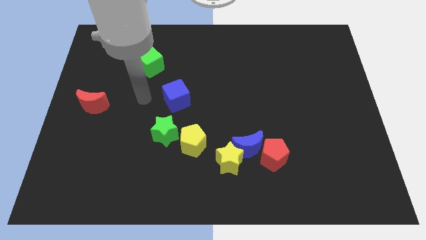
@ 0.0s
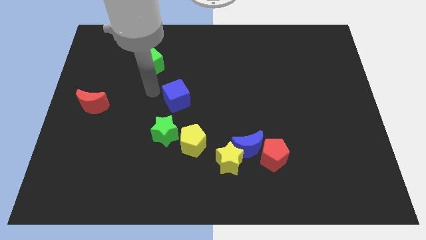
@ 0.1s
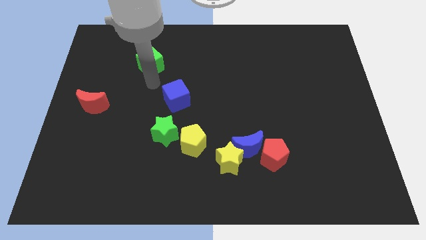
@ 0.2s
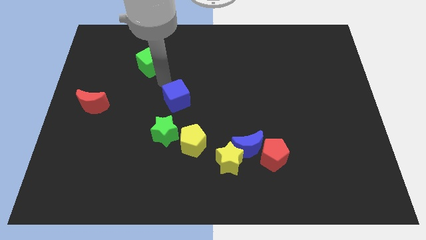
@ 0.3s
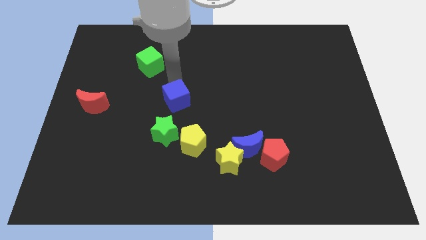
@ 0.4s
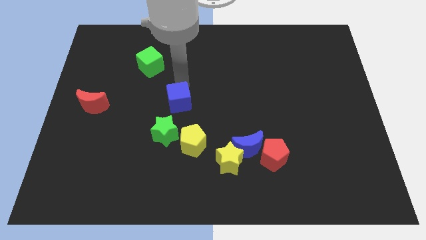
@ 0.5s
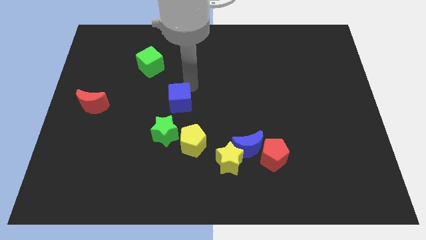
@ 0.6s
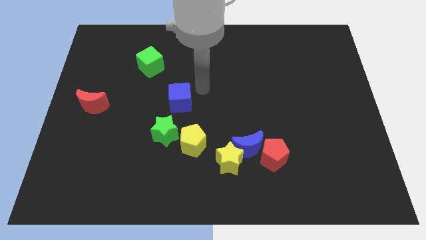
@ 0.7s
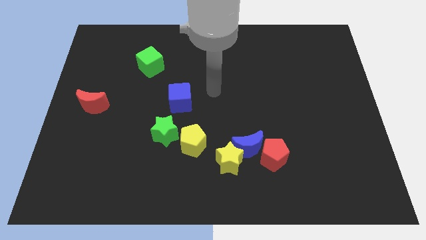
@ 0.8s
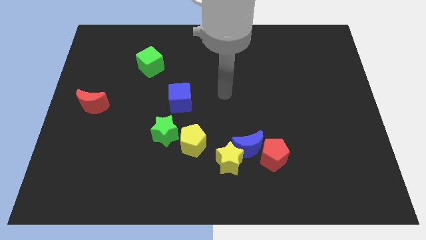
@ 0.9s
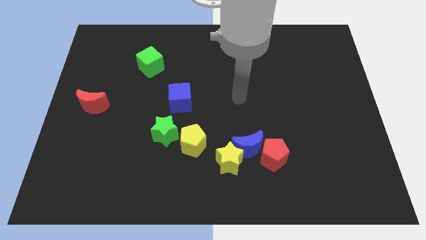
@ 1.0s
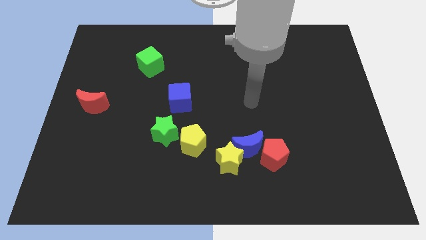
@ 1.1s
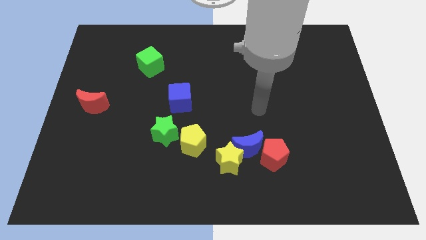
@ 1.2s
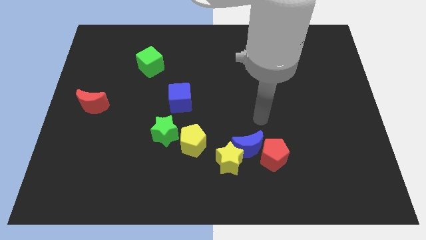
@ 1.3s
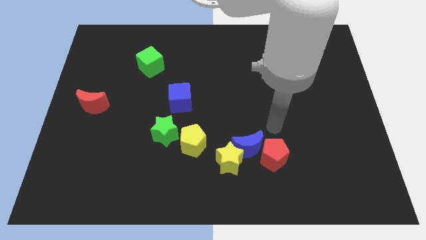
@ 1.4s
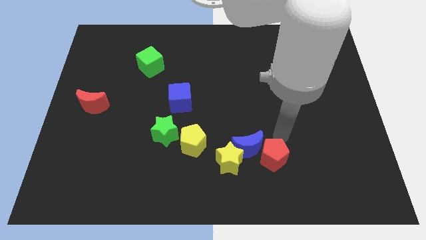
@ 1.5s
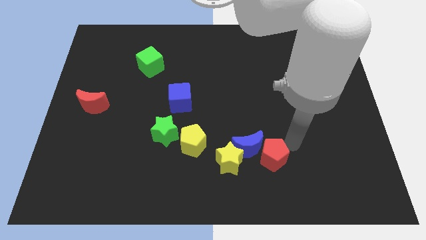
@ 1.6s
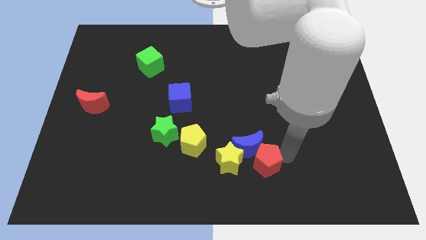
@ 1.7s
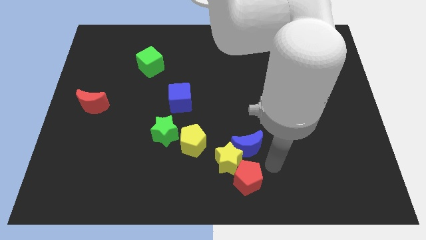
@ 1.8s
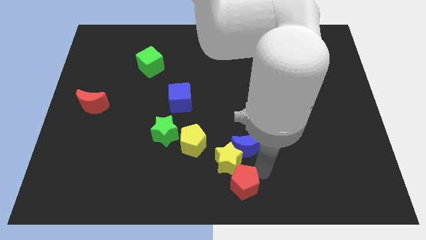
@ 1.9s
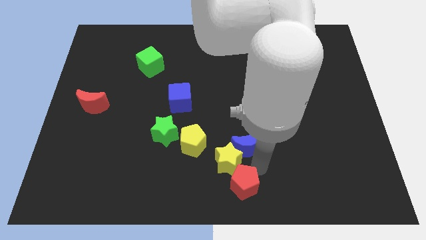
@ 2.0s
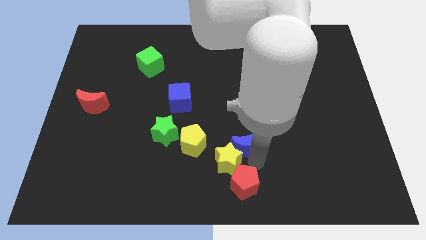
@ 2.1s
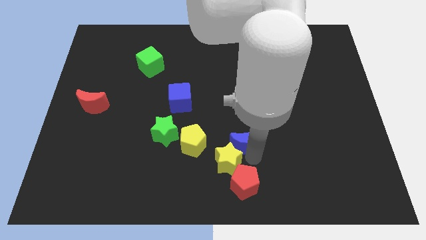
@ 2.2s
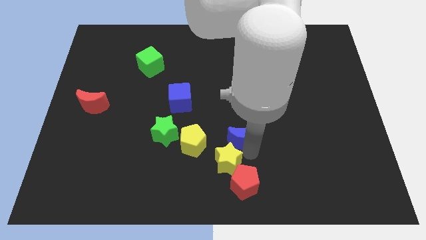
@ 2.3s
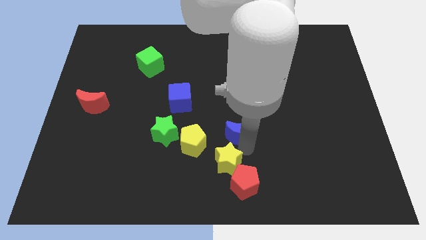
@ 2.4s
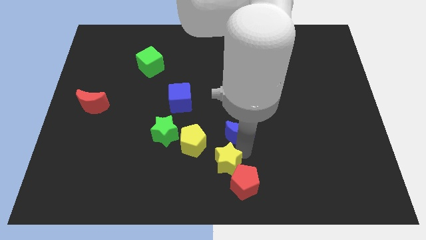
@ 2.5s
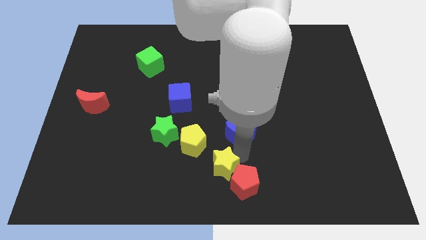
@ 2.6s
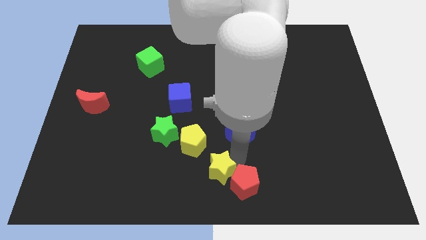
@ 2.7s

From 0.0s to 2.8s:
pull the blue moon apart from the yellow star and red pentagon

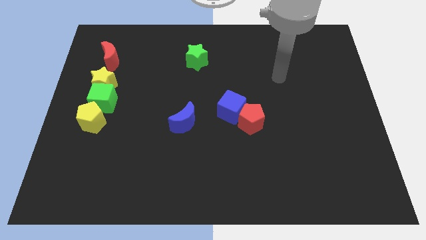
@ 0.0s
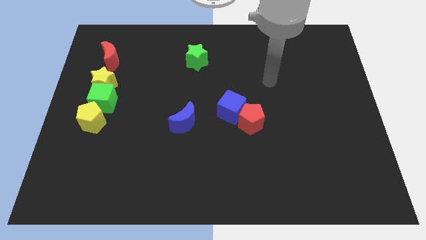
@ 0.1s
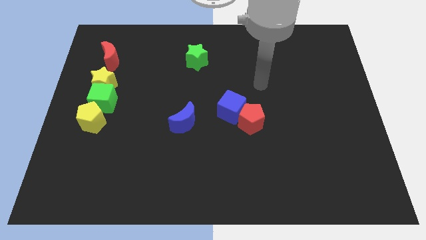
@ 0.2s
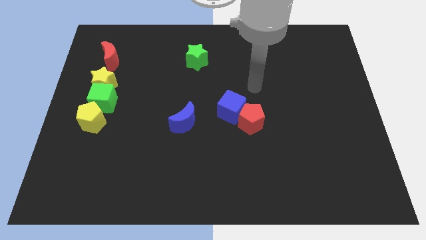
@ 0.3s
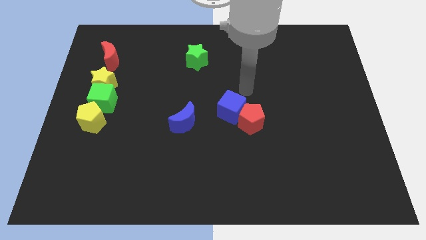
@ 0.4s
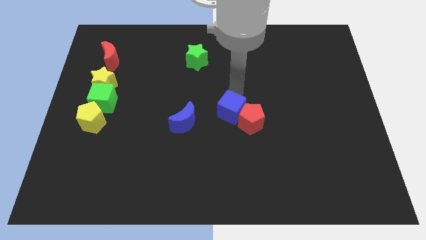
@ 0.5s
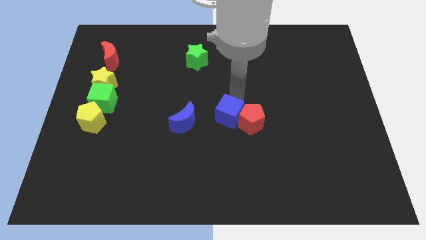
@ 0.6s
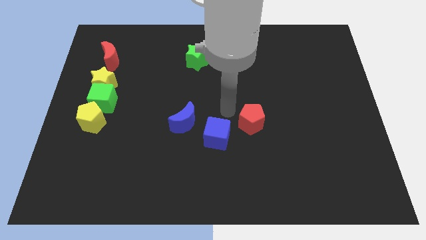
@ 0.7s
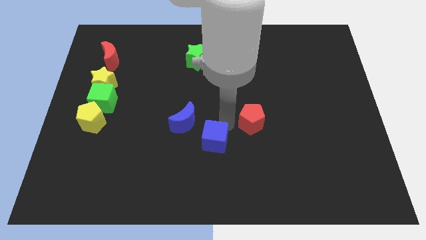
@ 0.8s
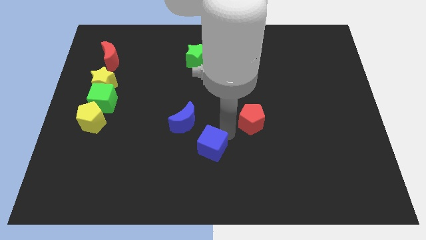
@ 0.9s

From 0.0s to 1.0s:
move the red pentagon away from the blue cube

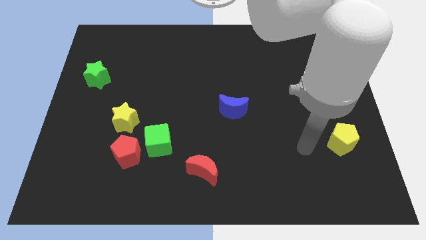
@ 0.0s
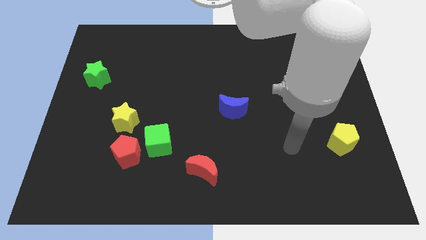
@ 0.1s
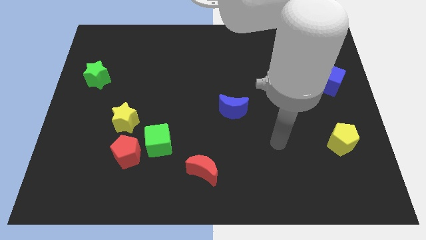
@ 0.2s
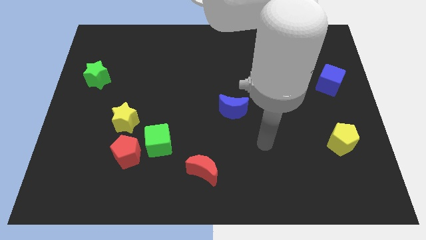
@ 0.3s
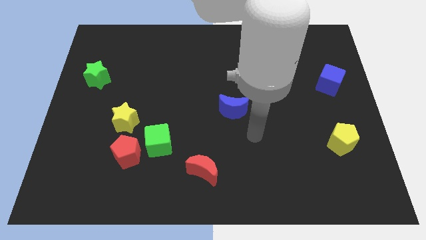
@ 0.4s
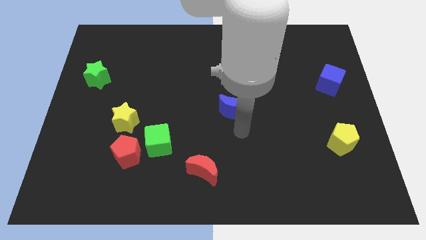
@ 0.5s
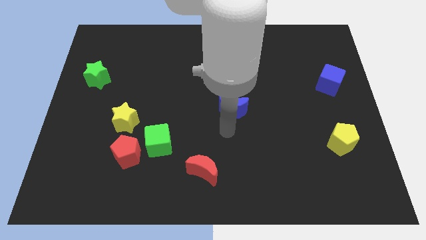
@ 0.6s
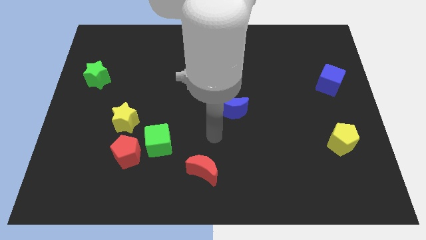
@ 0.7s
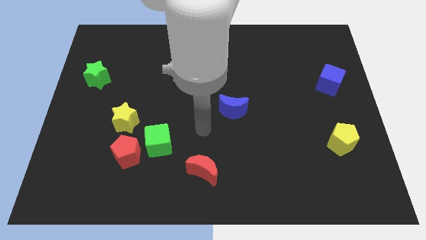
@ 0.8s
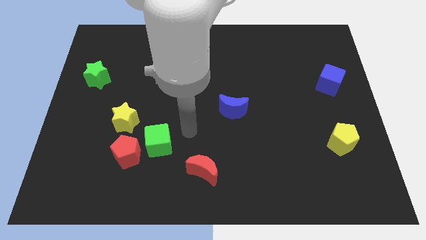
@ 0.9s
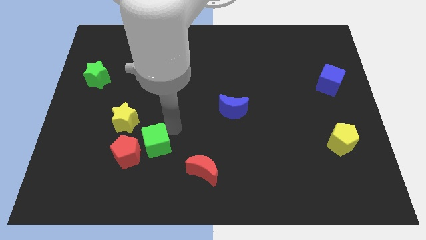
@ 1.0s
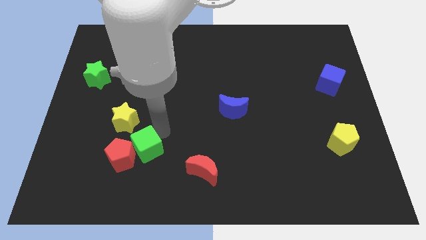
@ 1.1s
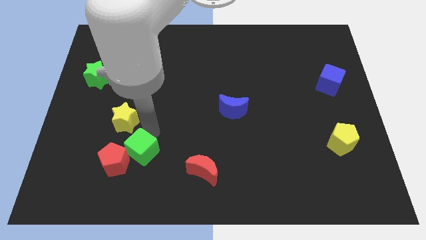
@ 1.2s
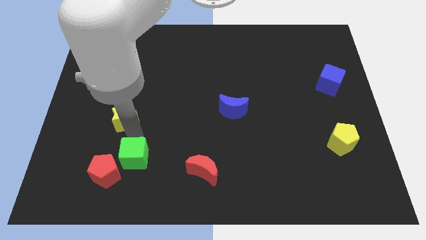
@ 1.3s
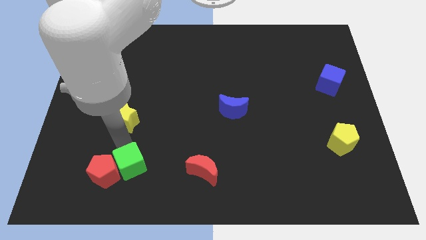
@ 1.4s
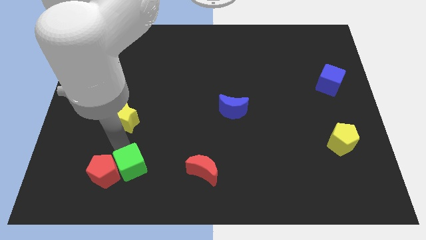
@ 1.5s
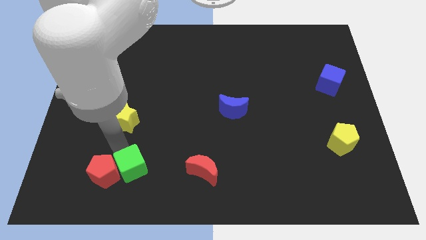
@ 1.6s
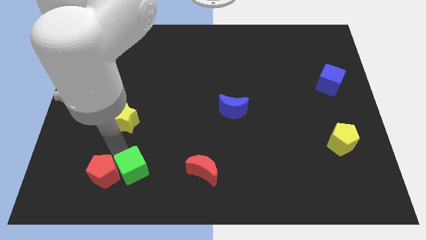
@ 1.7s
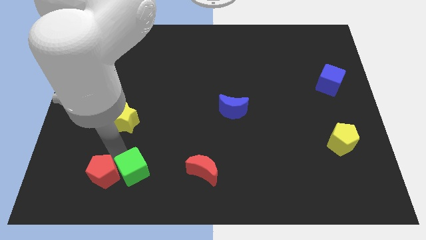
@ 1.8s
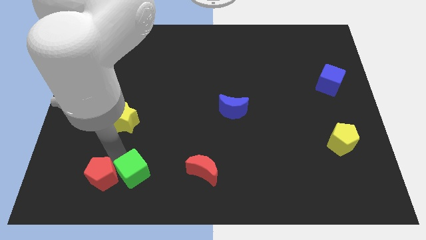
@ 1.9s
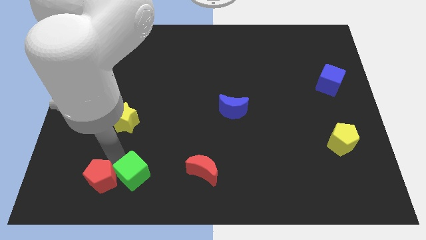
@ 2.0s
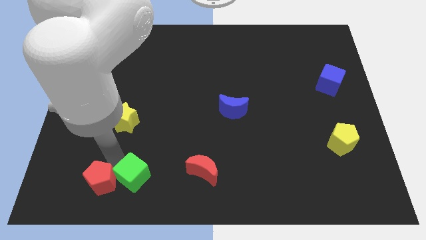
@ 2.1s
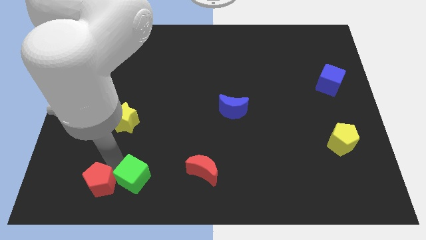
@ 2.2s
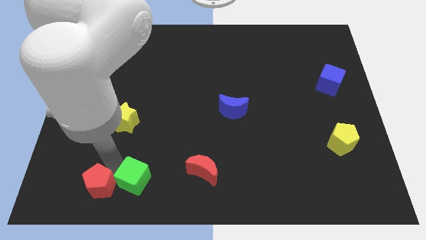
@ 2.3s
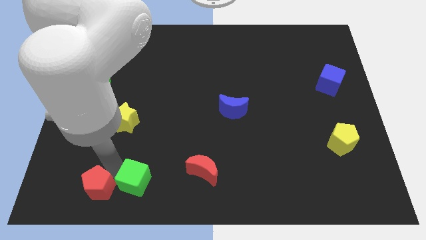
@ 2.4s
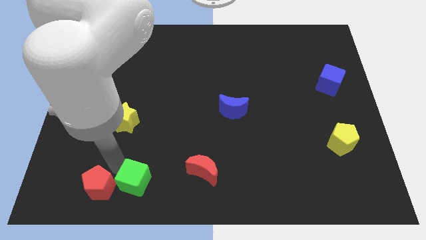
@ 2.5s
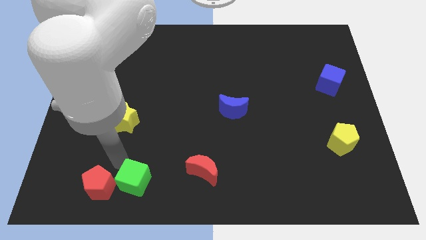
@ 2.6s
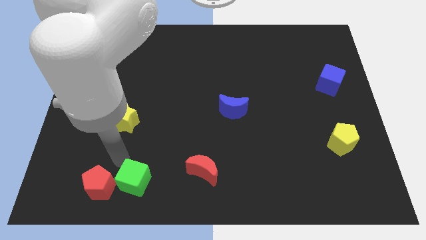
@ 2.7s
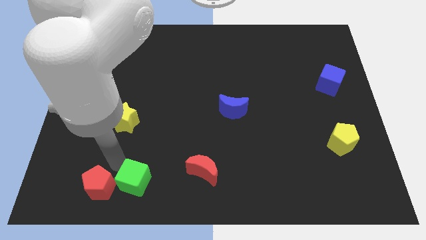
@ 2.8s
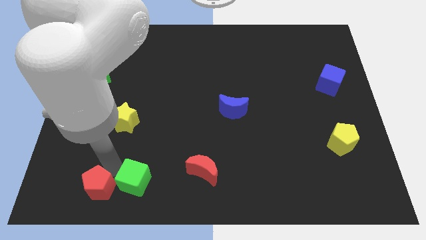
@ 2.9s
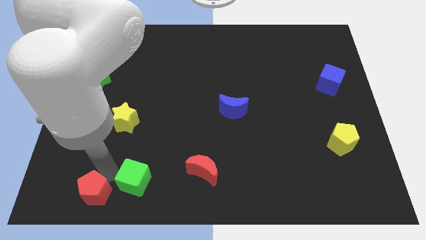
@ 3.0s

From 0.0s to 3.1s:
separate the red pentagon from the green cube and yellow star

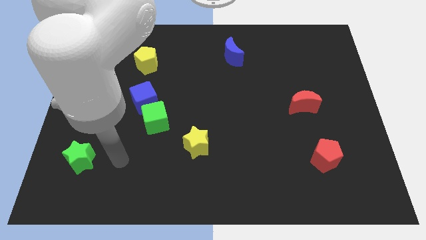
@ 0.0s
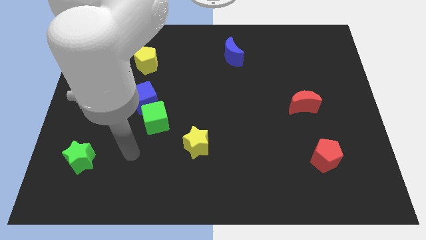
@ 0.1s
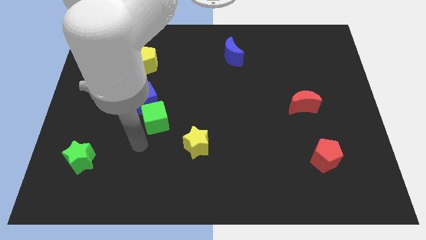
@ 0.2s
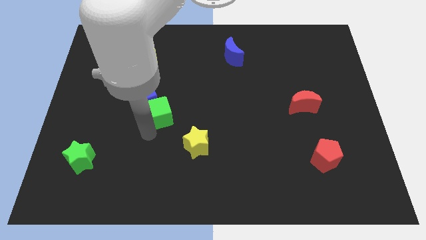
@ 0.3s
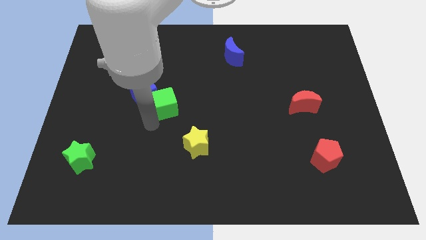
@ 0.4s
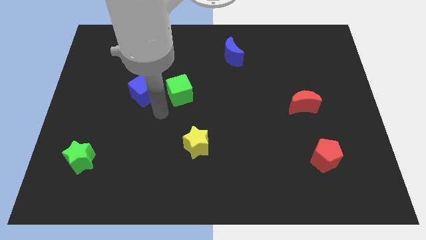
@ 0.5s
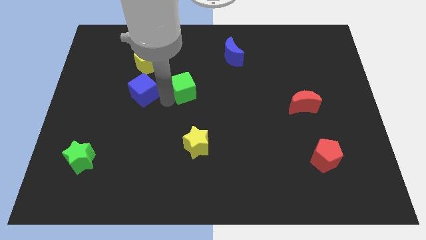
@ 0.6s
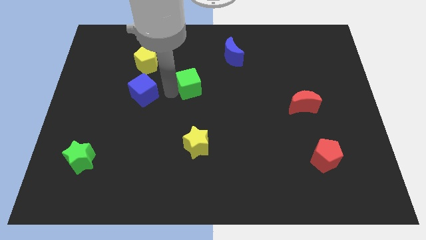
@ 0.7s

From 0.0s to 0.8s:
move the blue cube away from the green cube

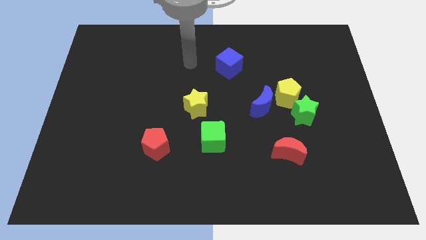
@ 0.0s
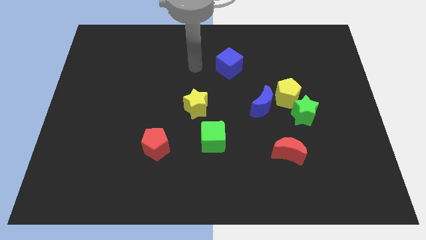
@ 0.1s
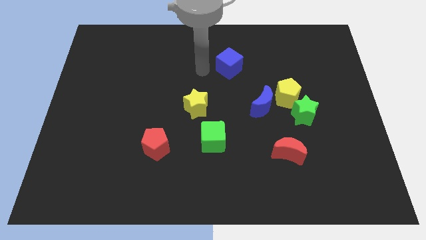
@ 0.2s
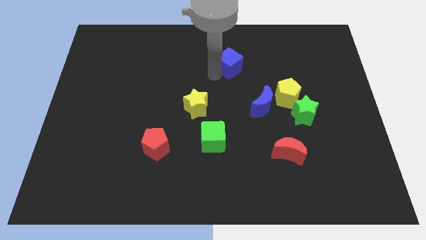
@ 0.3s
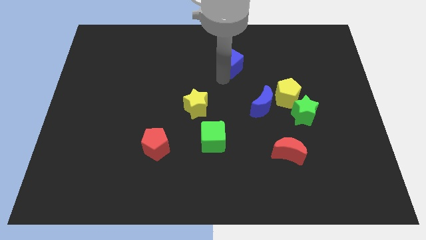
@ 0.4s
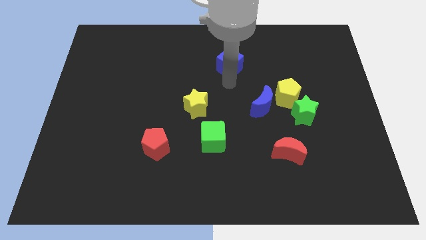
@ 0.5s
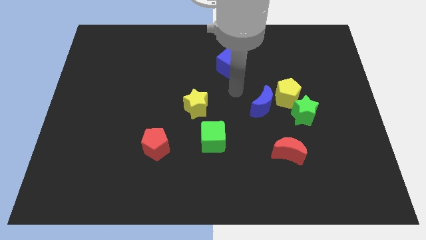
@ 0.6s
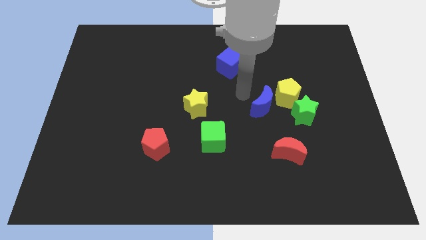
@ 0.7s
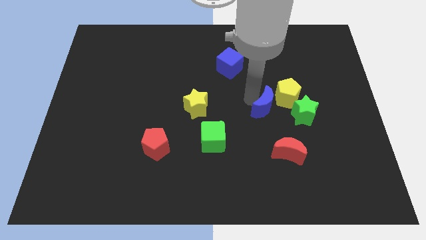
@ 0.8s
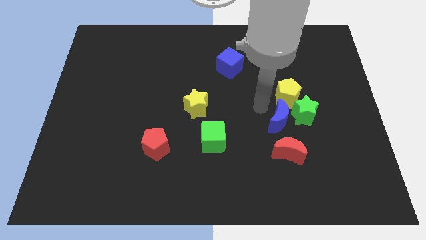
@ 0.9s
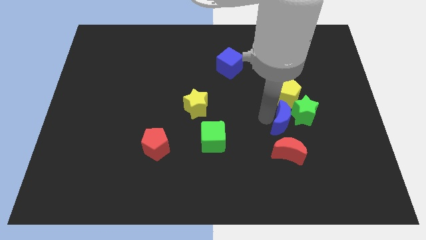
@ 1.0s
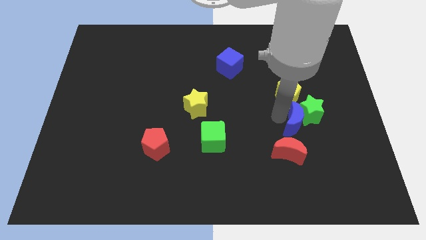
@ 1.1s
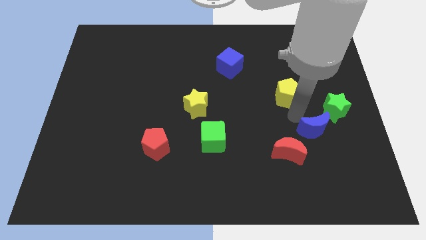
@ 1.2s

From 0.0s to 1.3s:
separate the yellow pentagon from the green star and blue moon

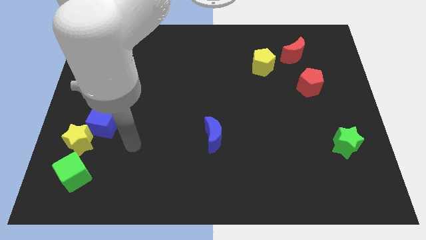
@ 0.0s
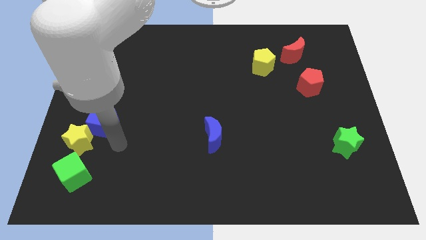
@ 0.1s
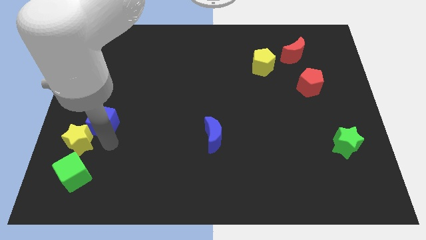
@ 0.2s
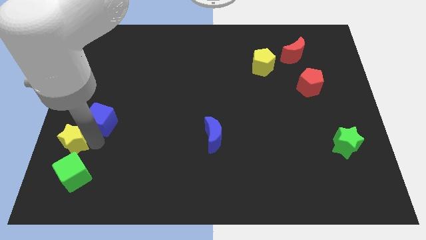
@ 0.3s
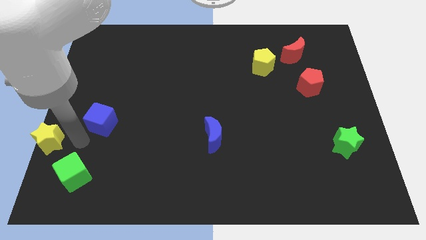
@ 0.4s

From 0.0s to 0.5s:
pull the blue cube apart from the yellow star
